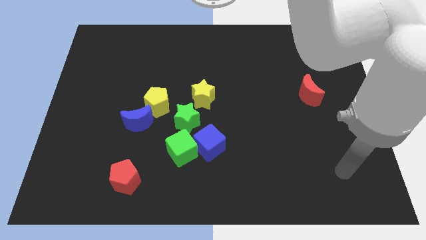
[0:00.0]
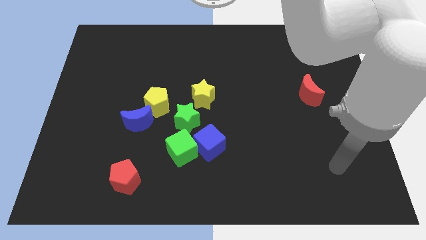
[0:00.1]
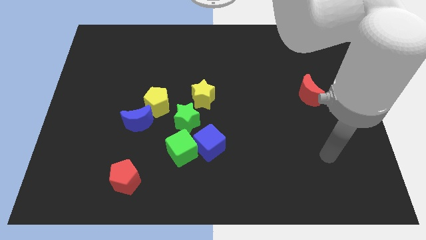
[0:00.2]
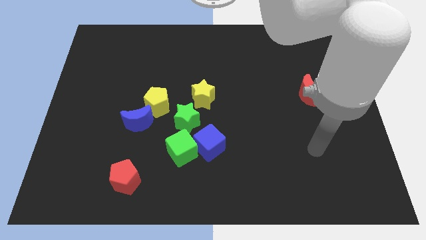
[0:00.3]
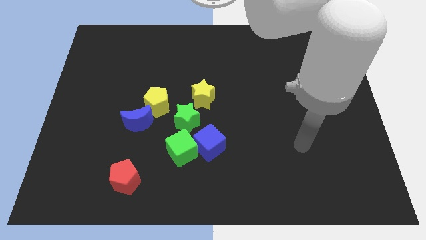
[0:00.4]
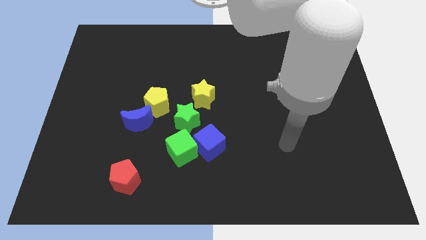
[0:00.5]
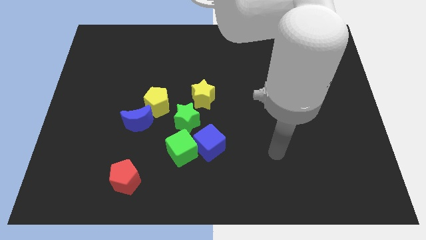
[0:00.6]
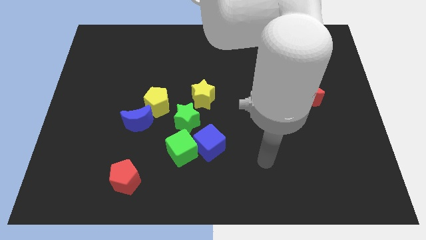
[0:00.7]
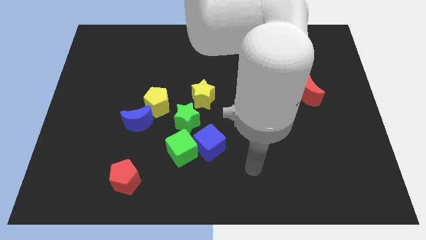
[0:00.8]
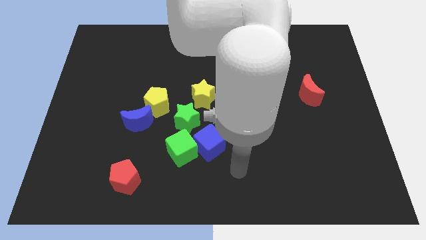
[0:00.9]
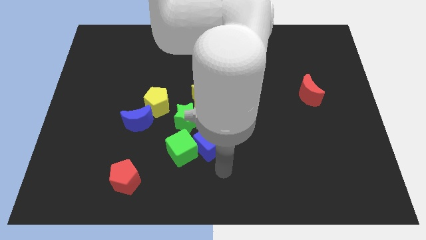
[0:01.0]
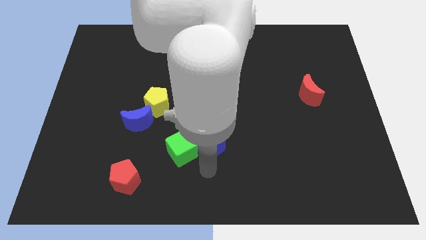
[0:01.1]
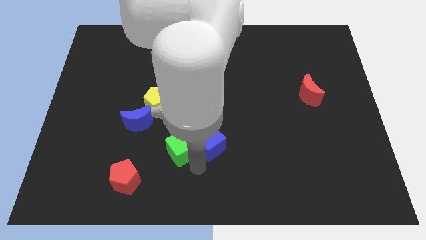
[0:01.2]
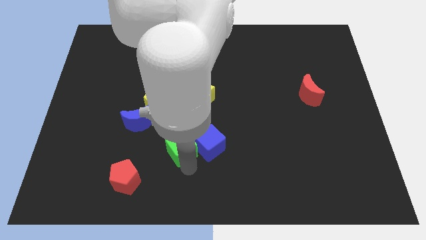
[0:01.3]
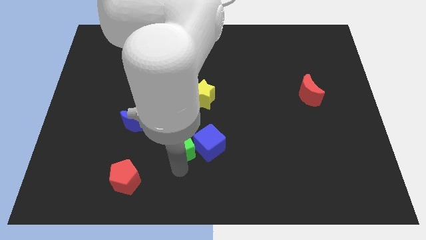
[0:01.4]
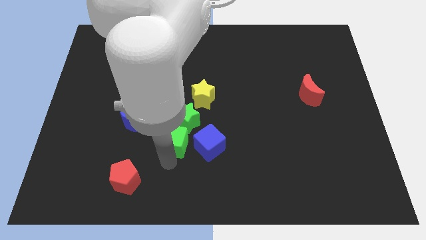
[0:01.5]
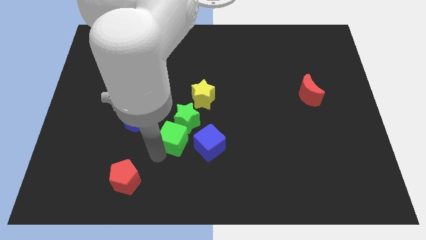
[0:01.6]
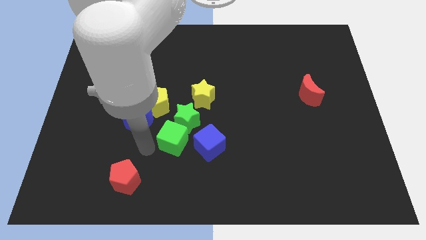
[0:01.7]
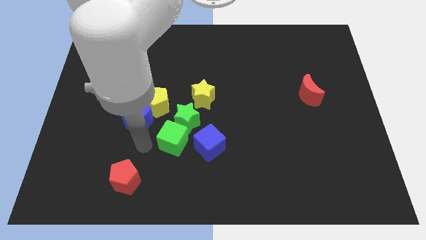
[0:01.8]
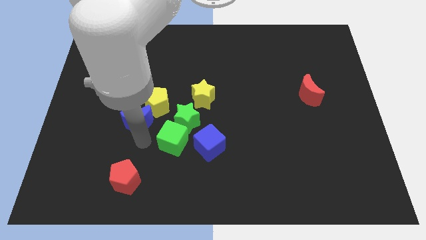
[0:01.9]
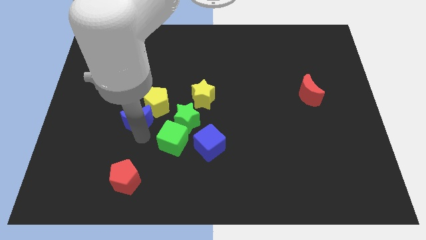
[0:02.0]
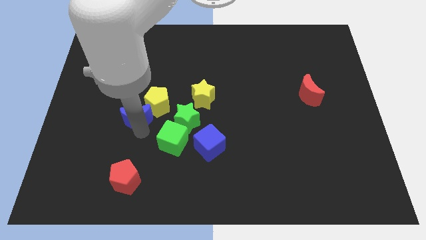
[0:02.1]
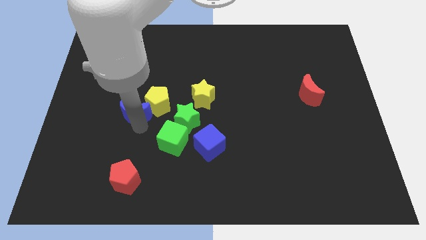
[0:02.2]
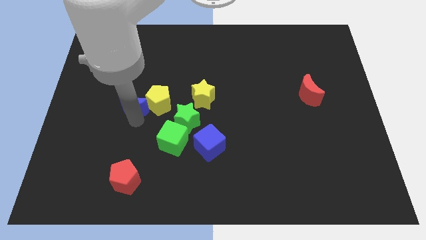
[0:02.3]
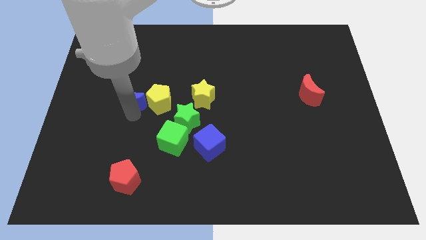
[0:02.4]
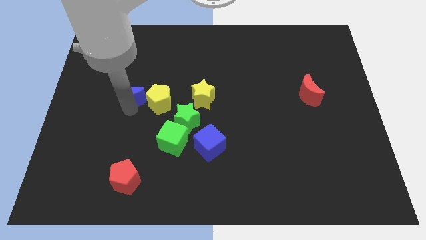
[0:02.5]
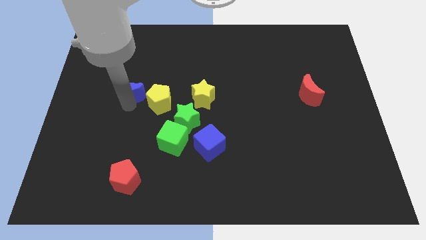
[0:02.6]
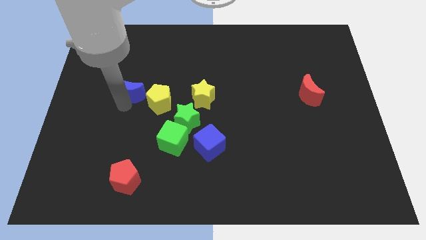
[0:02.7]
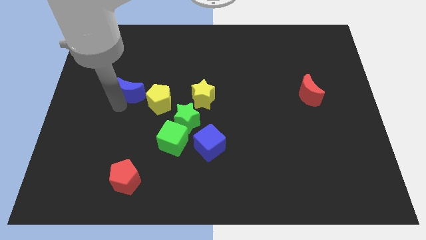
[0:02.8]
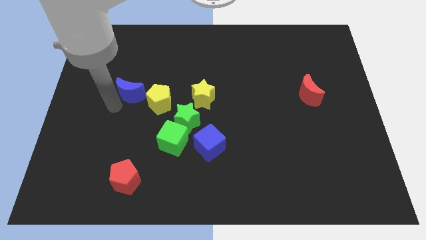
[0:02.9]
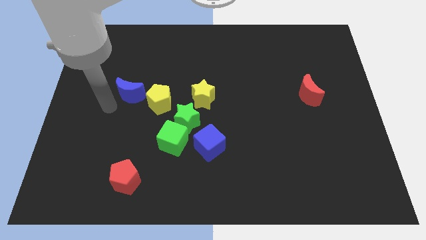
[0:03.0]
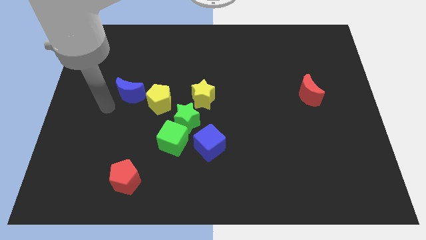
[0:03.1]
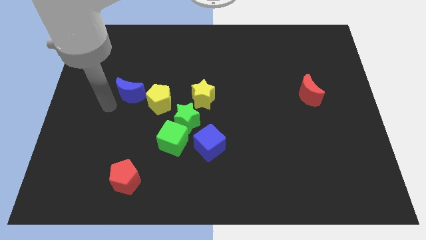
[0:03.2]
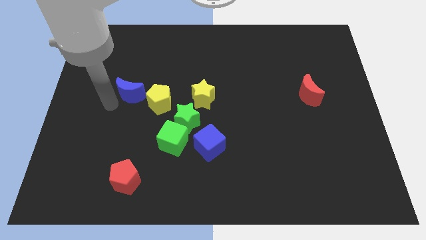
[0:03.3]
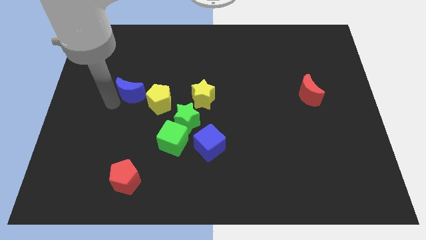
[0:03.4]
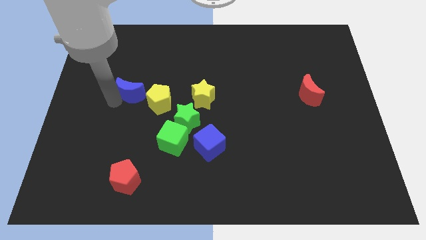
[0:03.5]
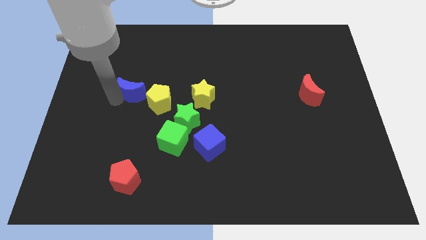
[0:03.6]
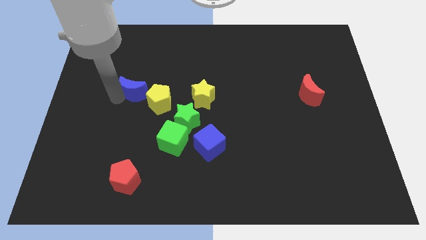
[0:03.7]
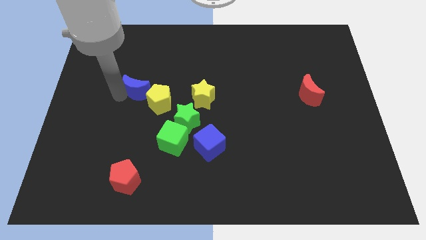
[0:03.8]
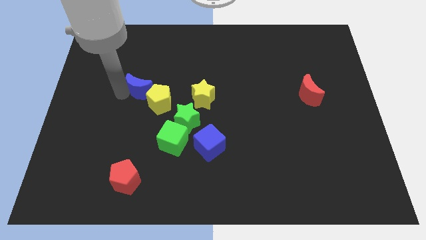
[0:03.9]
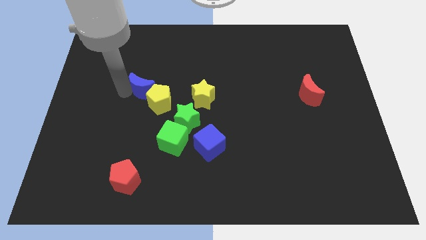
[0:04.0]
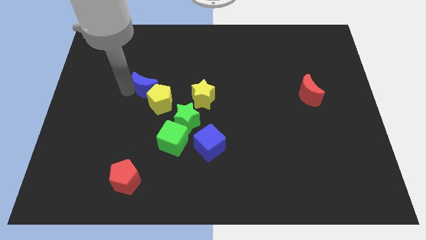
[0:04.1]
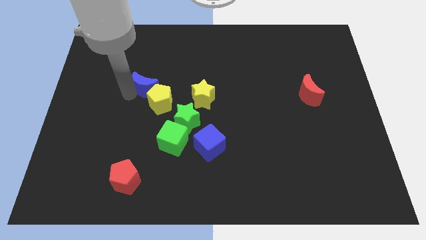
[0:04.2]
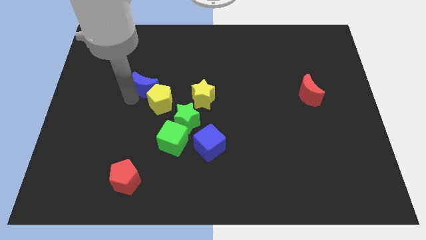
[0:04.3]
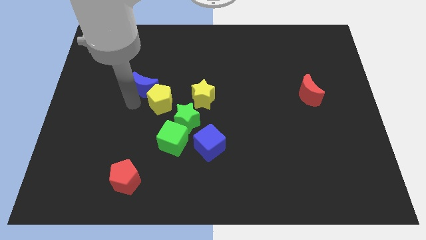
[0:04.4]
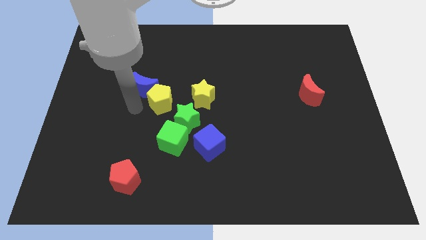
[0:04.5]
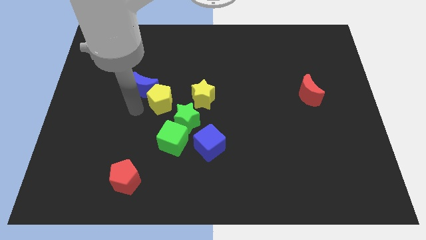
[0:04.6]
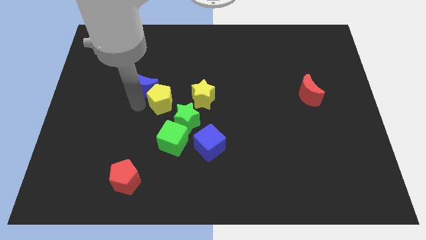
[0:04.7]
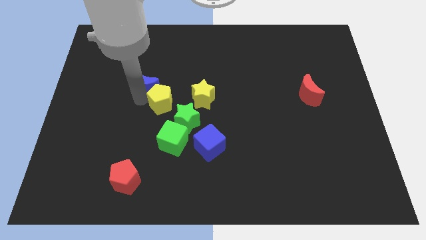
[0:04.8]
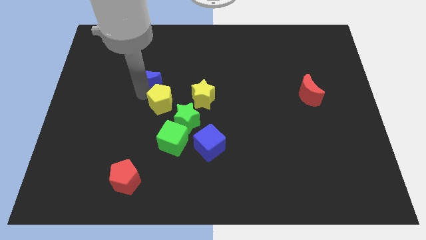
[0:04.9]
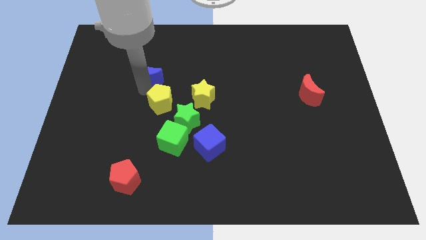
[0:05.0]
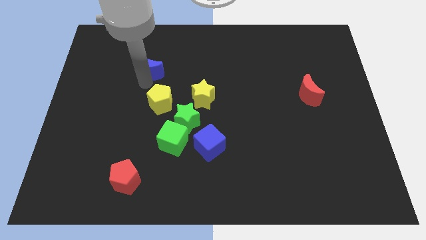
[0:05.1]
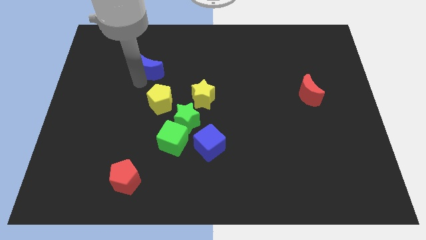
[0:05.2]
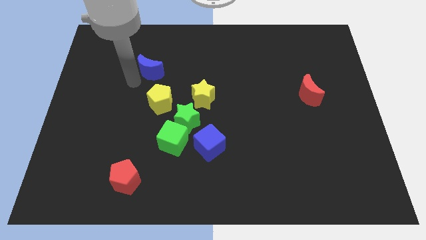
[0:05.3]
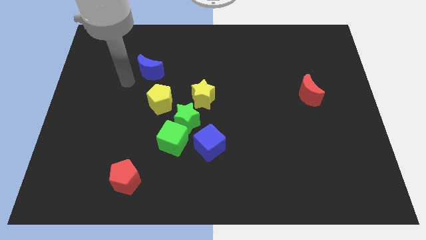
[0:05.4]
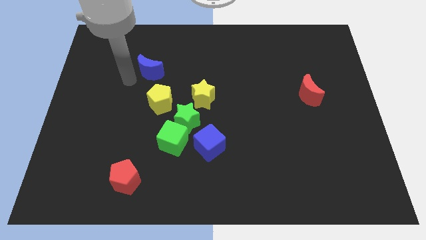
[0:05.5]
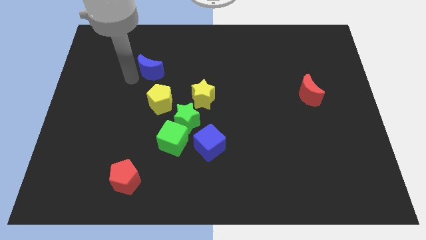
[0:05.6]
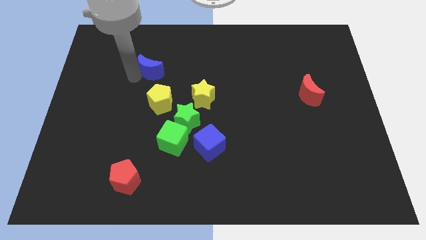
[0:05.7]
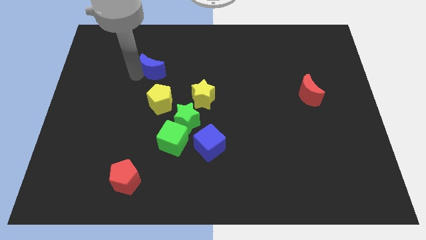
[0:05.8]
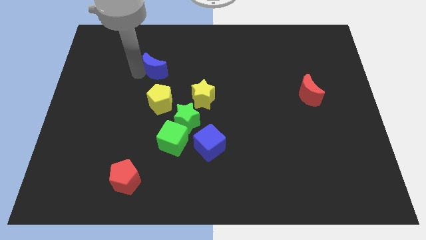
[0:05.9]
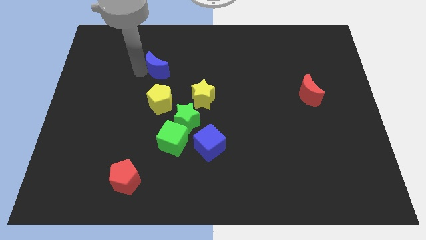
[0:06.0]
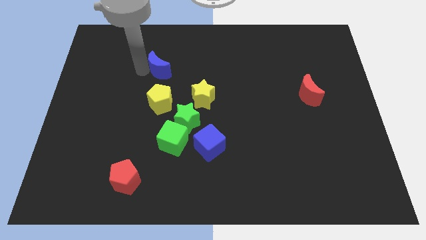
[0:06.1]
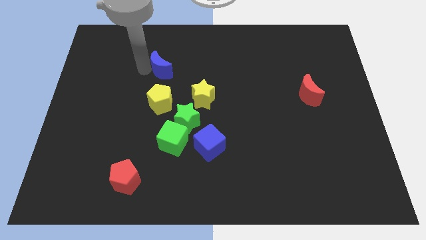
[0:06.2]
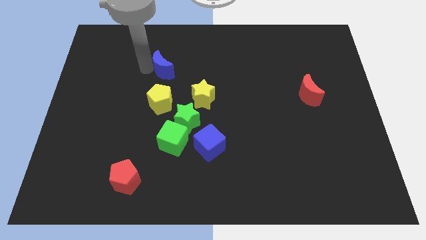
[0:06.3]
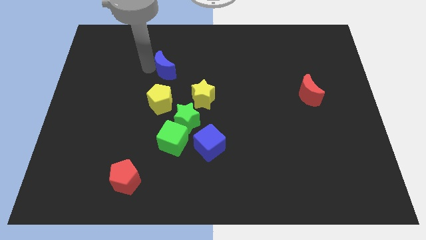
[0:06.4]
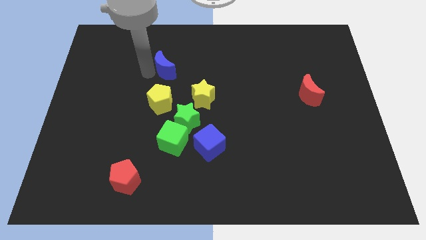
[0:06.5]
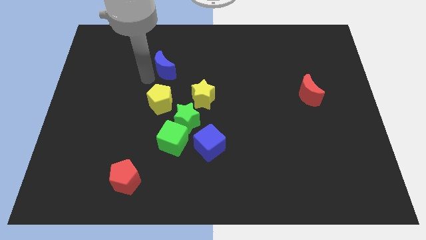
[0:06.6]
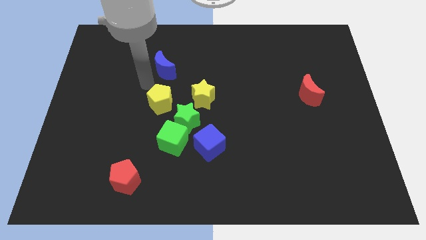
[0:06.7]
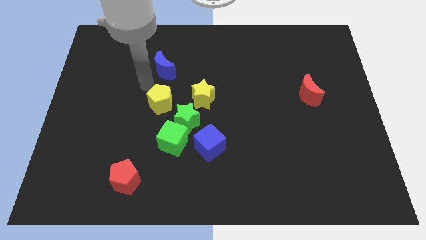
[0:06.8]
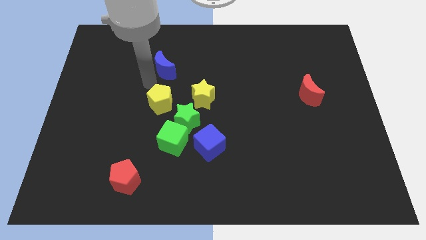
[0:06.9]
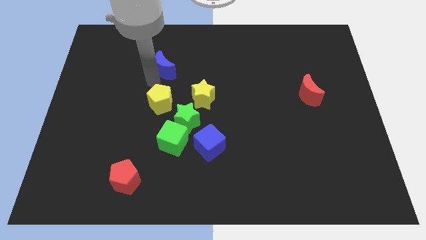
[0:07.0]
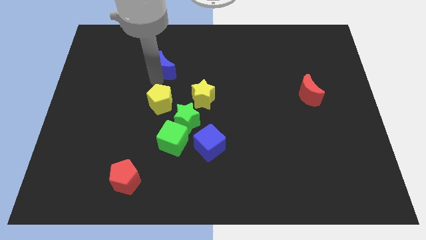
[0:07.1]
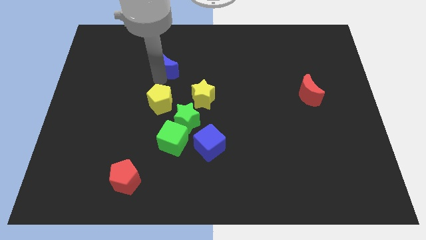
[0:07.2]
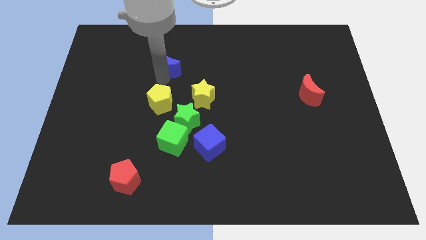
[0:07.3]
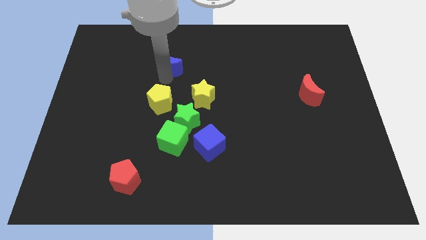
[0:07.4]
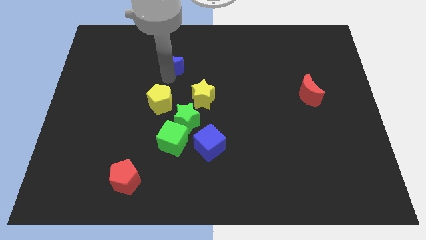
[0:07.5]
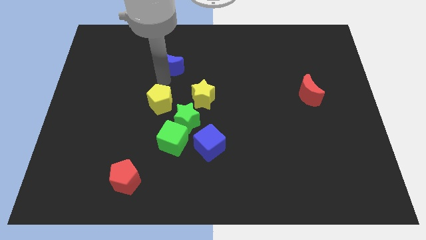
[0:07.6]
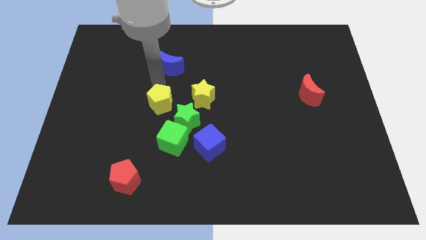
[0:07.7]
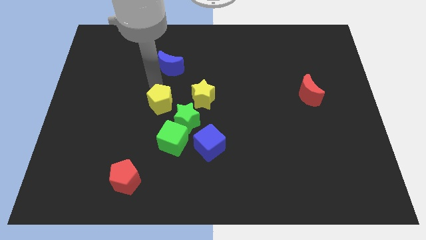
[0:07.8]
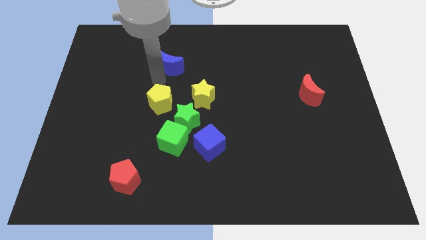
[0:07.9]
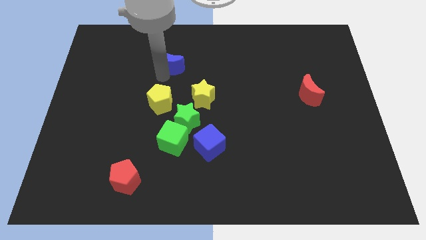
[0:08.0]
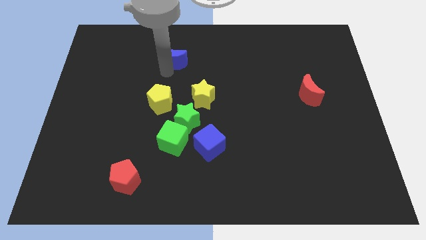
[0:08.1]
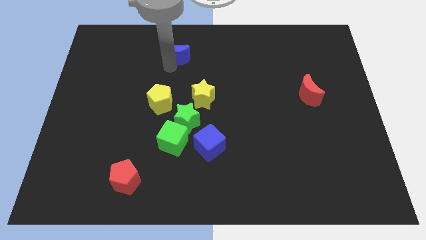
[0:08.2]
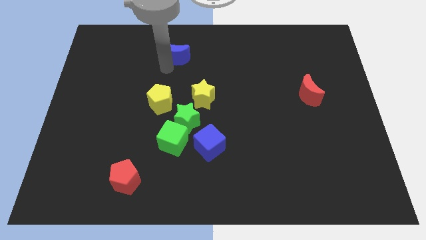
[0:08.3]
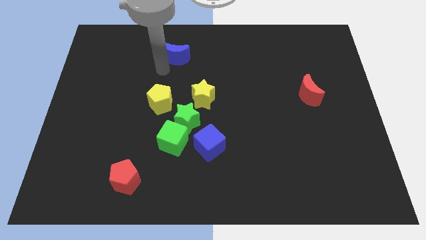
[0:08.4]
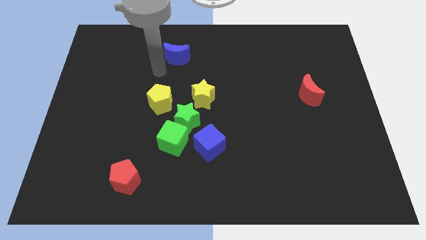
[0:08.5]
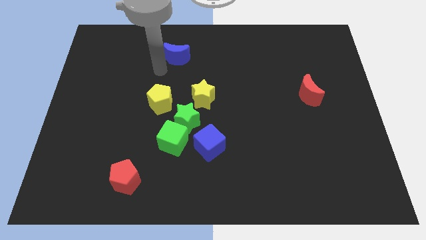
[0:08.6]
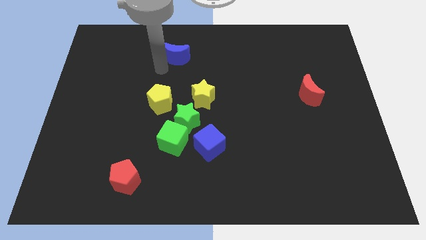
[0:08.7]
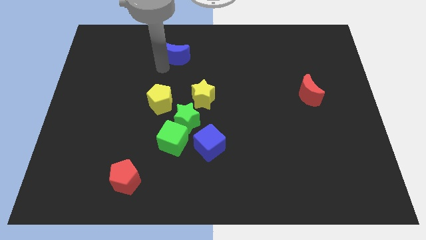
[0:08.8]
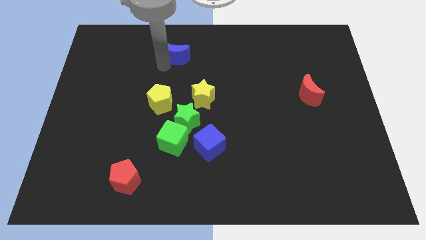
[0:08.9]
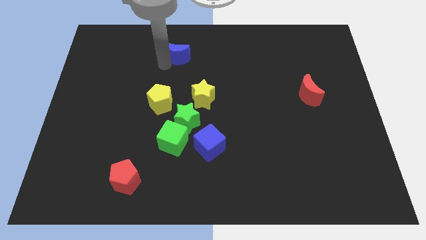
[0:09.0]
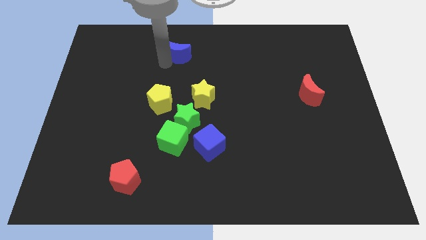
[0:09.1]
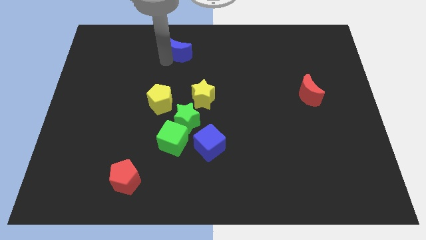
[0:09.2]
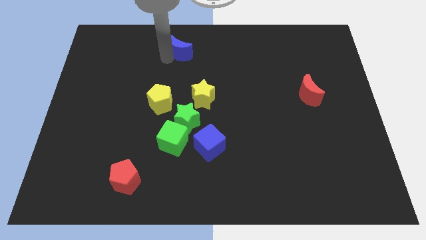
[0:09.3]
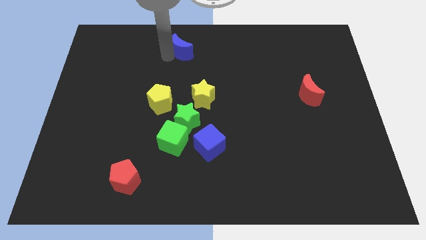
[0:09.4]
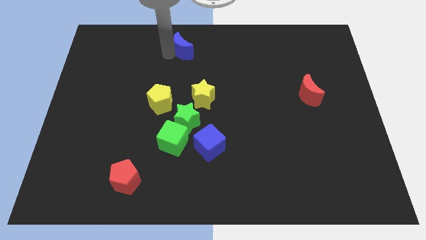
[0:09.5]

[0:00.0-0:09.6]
slide the blue moon to the top
